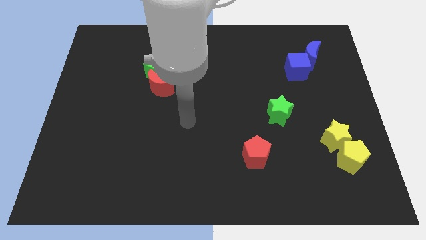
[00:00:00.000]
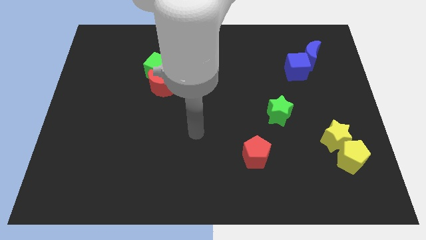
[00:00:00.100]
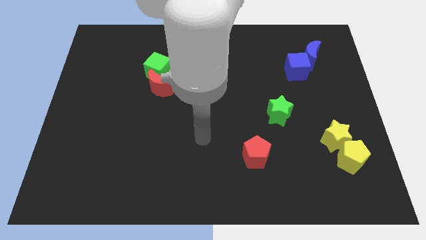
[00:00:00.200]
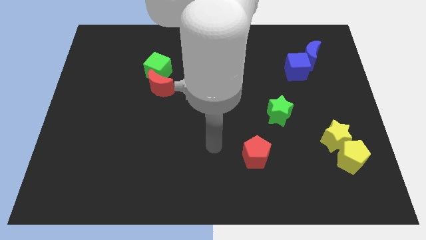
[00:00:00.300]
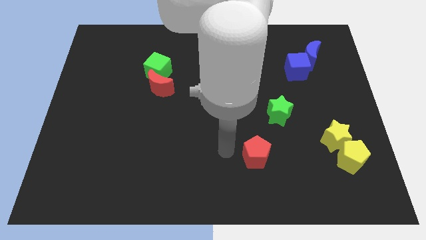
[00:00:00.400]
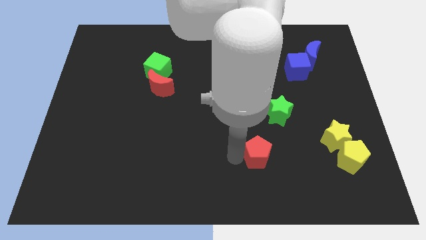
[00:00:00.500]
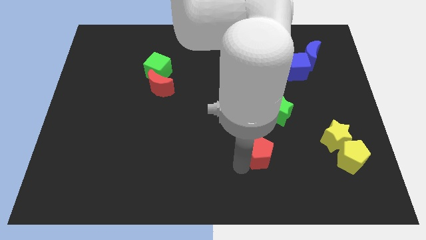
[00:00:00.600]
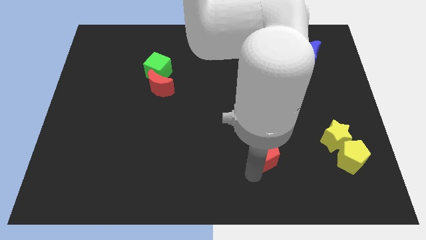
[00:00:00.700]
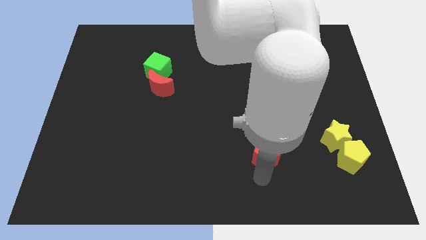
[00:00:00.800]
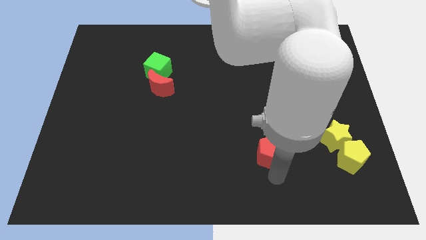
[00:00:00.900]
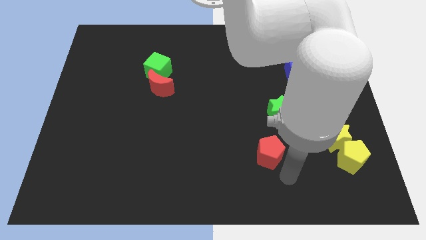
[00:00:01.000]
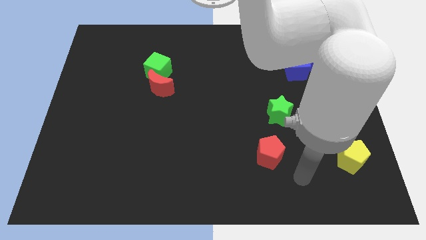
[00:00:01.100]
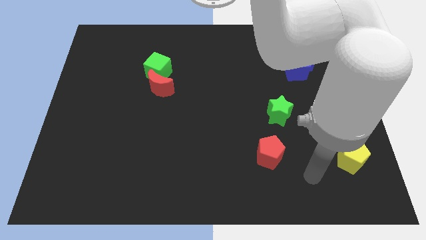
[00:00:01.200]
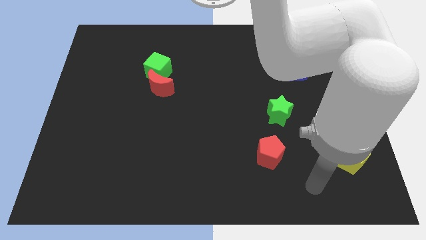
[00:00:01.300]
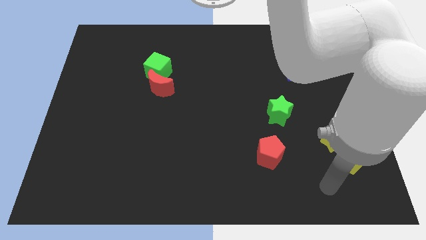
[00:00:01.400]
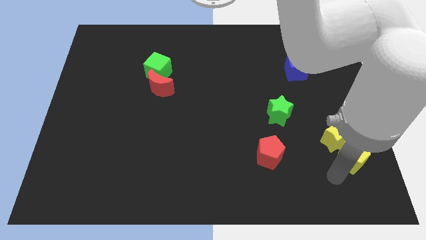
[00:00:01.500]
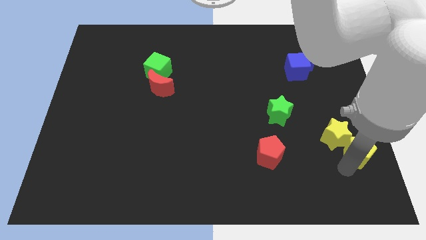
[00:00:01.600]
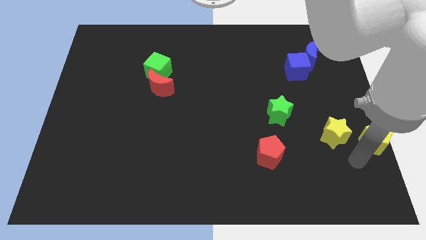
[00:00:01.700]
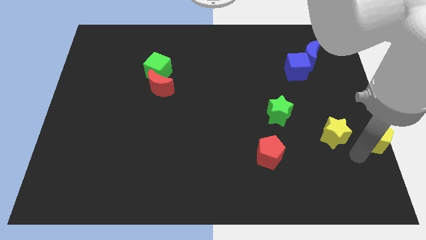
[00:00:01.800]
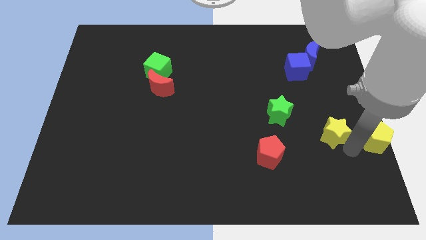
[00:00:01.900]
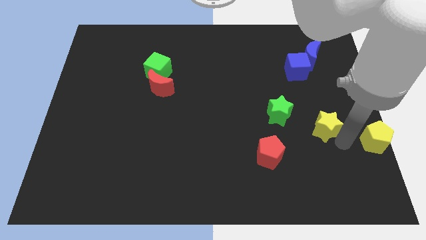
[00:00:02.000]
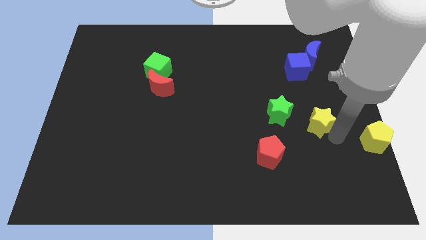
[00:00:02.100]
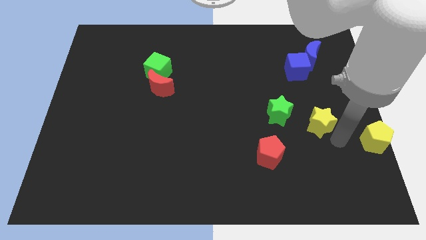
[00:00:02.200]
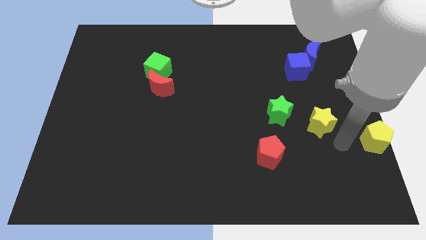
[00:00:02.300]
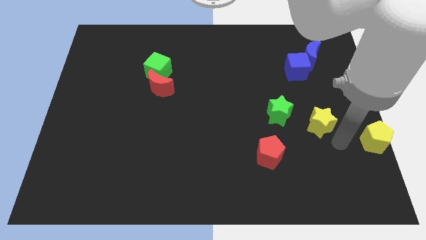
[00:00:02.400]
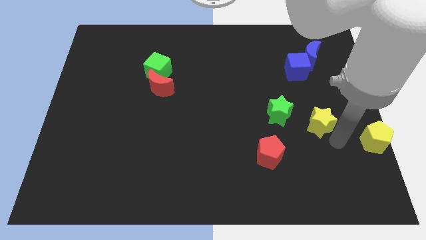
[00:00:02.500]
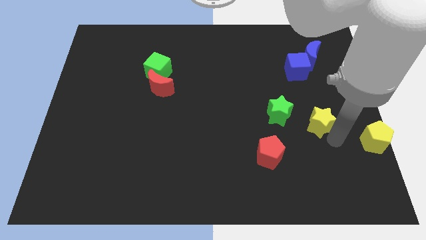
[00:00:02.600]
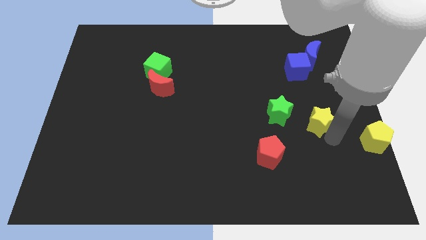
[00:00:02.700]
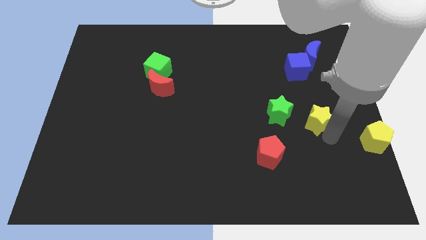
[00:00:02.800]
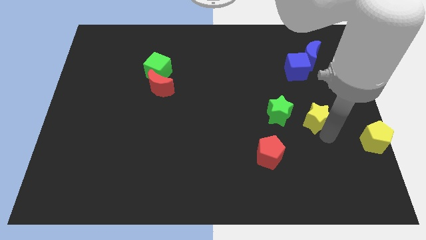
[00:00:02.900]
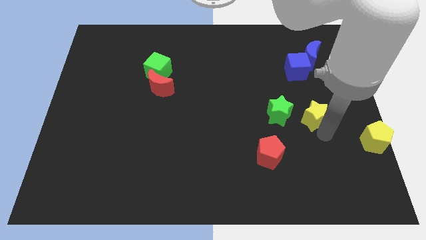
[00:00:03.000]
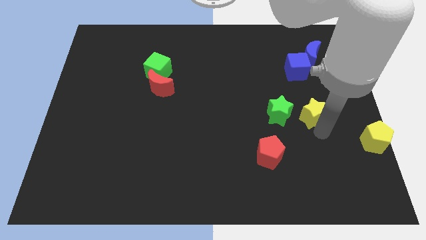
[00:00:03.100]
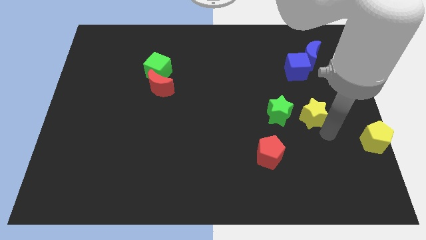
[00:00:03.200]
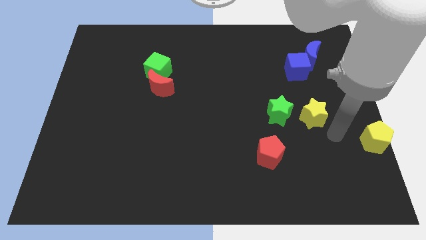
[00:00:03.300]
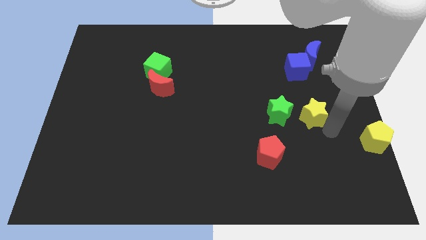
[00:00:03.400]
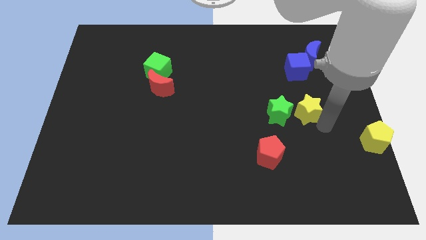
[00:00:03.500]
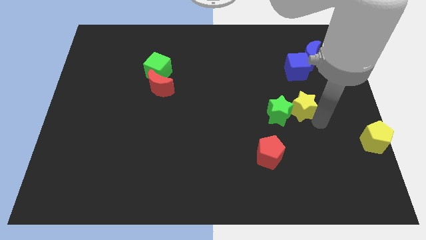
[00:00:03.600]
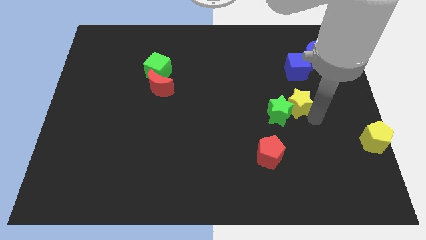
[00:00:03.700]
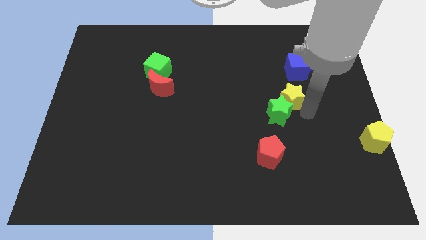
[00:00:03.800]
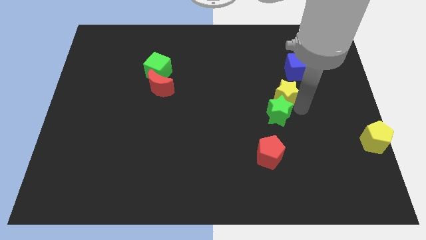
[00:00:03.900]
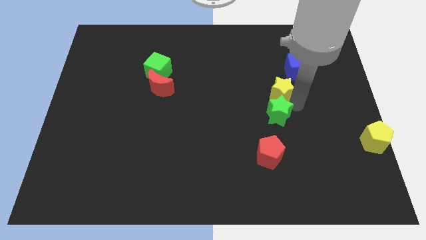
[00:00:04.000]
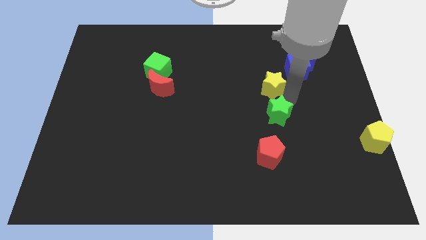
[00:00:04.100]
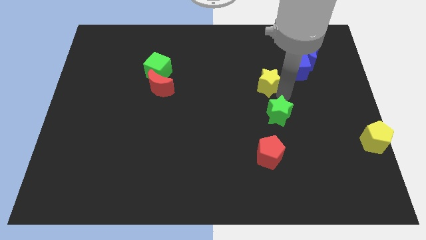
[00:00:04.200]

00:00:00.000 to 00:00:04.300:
move the yellow star up and left

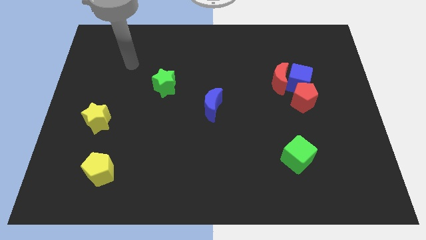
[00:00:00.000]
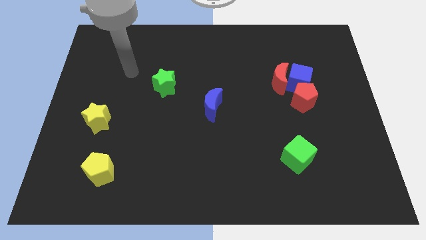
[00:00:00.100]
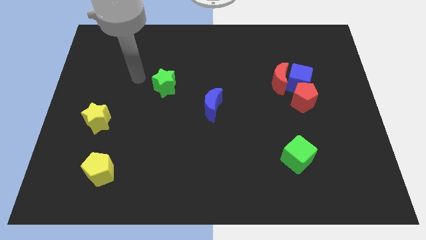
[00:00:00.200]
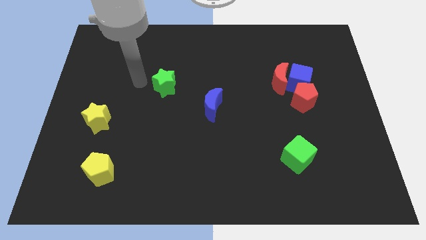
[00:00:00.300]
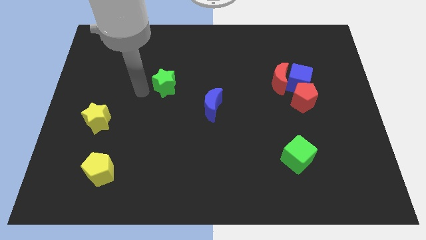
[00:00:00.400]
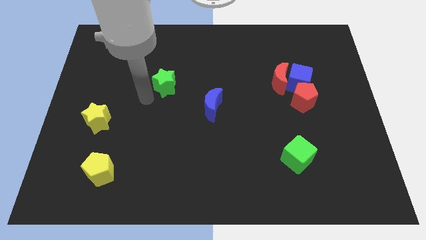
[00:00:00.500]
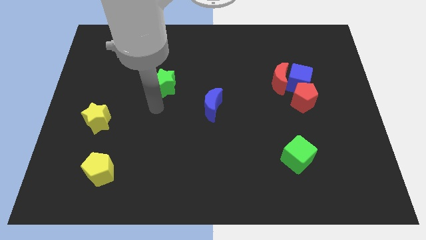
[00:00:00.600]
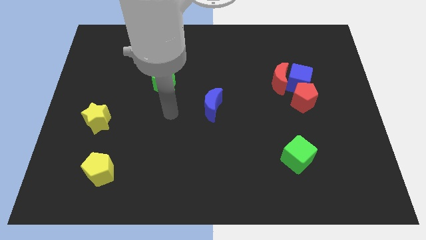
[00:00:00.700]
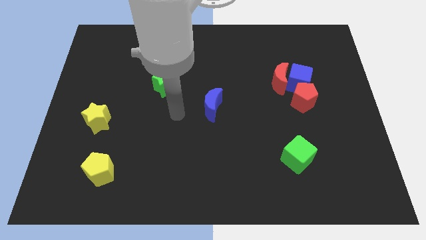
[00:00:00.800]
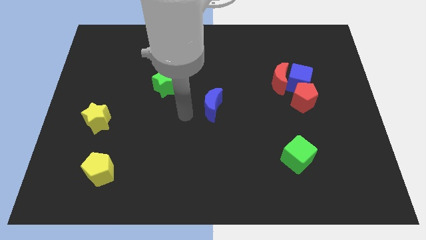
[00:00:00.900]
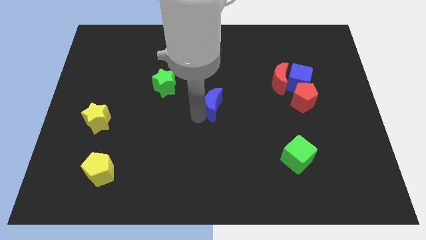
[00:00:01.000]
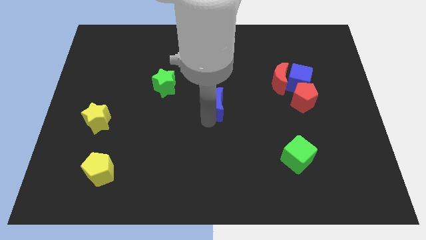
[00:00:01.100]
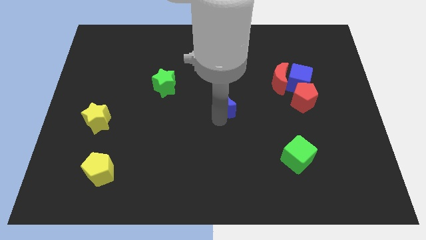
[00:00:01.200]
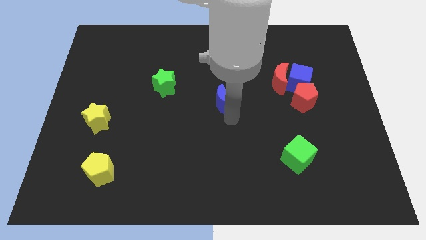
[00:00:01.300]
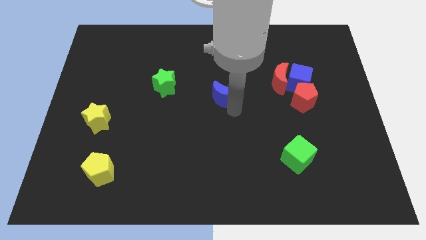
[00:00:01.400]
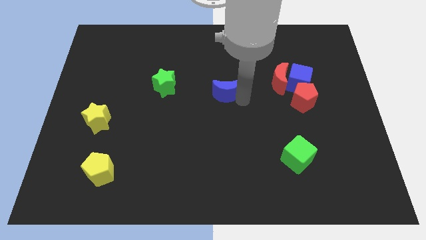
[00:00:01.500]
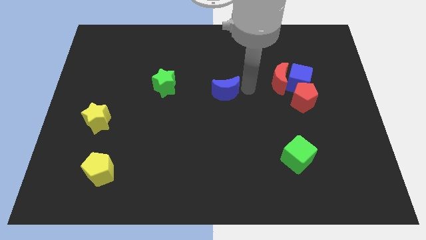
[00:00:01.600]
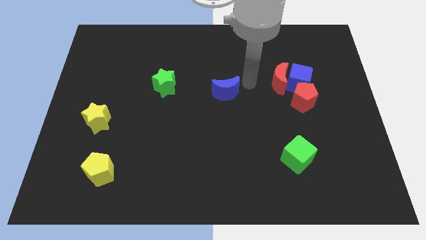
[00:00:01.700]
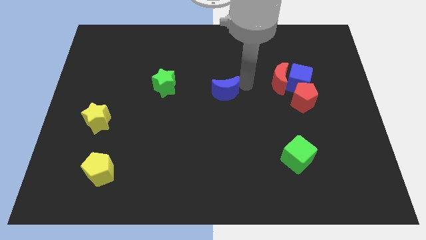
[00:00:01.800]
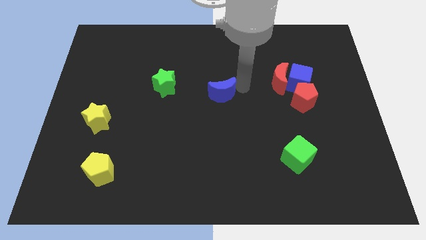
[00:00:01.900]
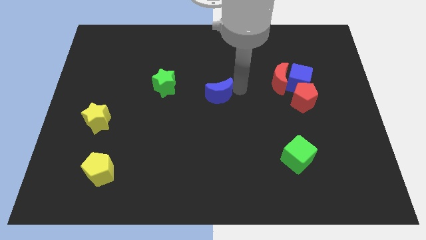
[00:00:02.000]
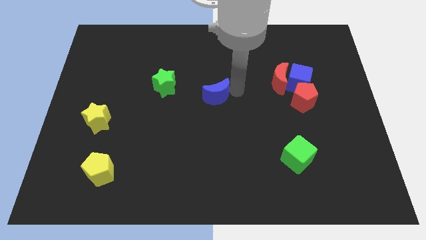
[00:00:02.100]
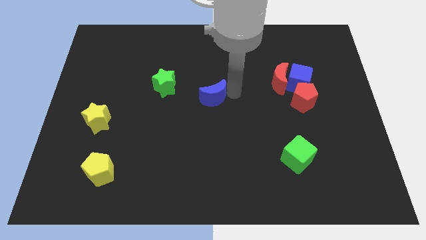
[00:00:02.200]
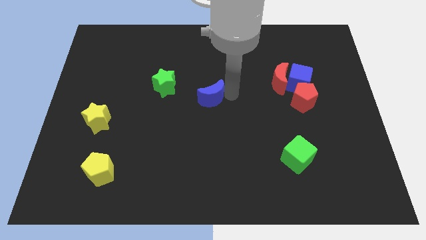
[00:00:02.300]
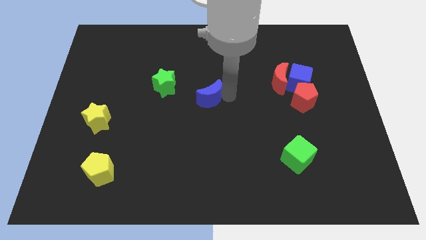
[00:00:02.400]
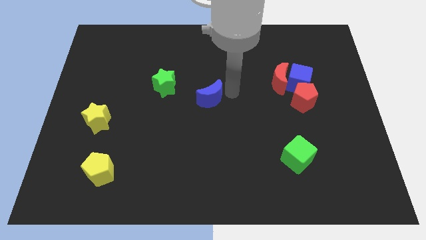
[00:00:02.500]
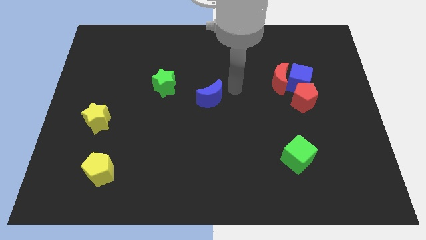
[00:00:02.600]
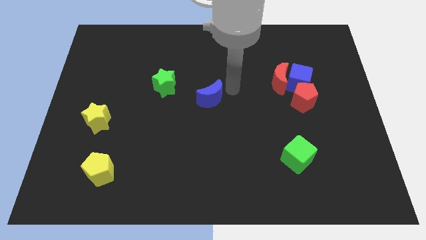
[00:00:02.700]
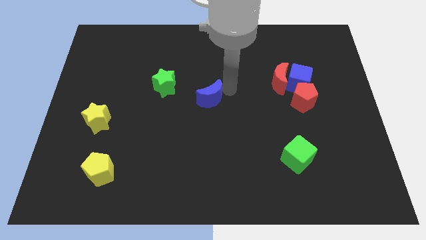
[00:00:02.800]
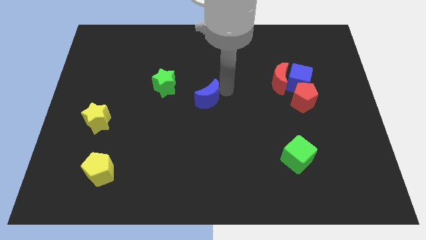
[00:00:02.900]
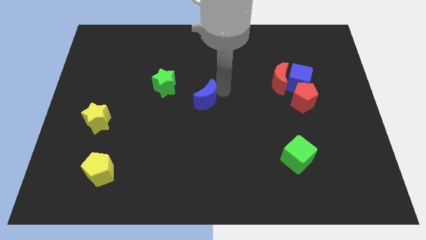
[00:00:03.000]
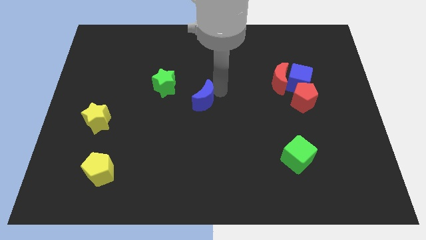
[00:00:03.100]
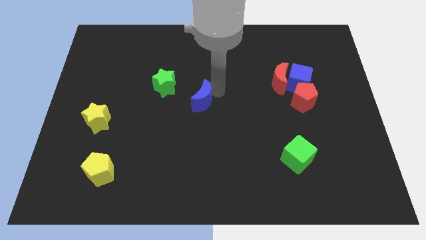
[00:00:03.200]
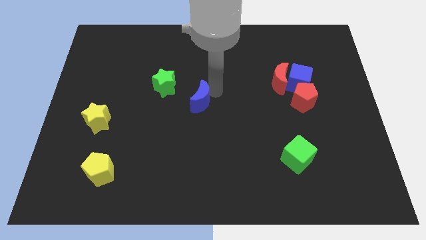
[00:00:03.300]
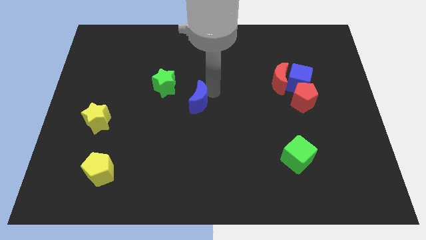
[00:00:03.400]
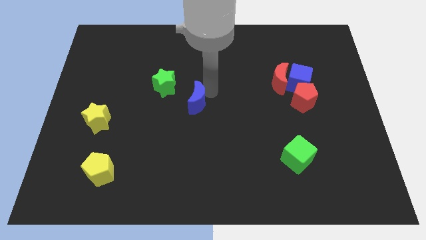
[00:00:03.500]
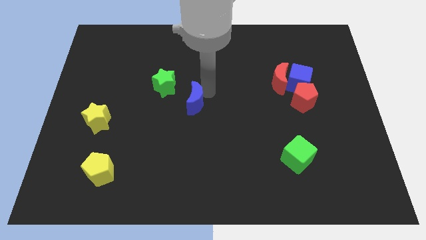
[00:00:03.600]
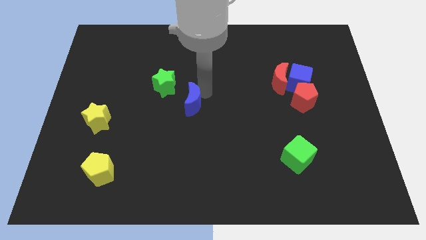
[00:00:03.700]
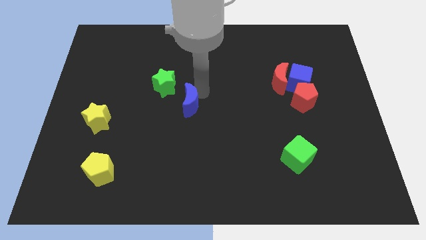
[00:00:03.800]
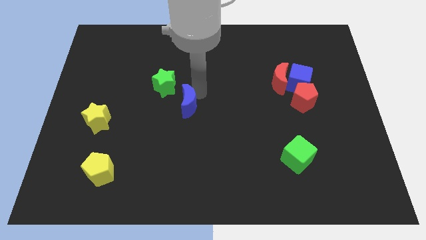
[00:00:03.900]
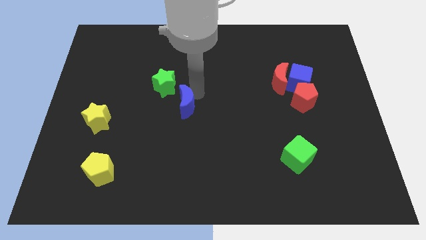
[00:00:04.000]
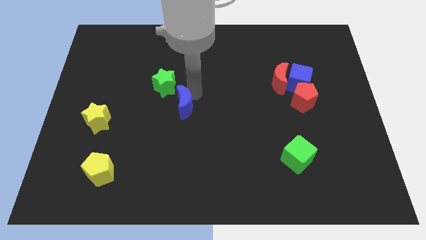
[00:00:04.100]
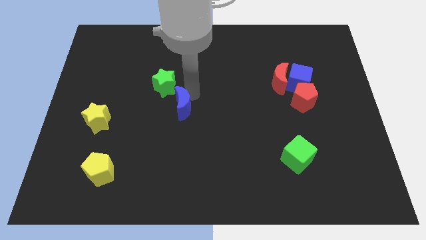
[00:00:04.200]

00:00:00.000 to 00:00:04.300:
move the blue moon left a little bit
